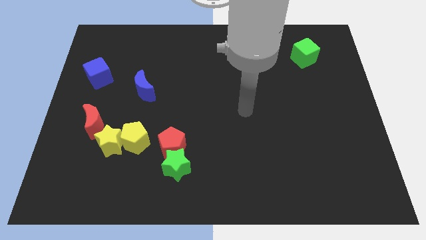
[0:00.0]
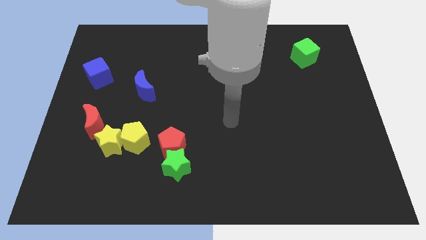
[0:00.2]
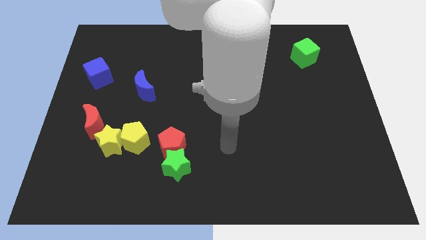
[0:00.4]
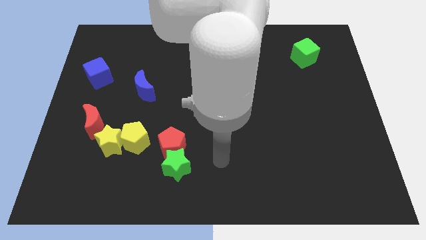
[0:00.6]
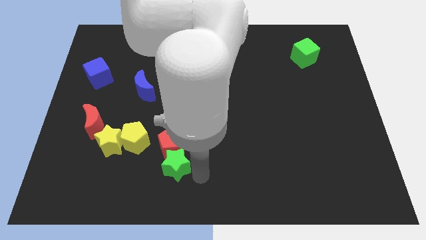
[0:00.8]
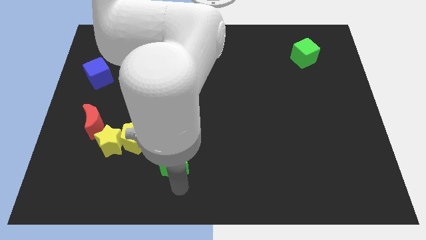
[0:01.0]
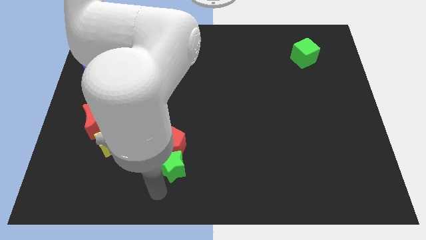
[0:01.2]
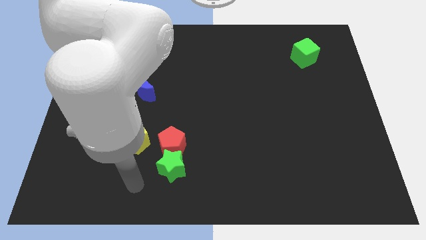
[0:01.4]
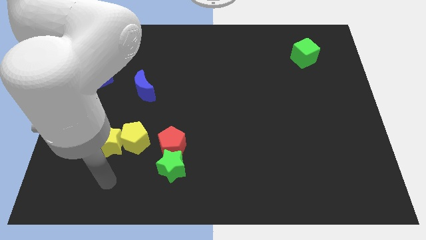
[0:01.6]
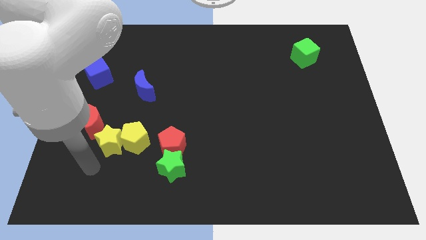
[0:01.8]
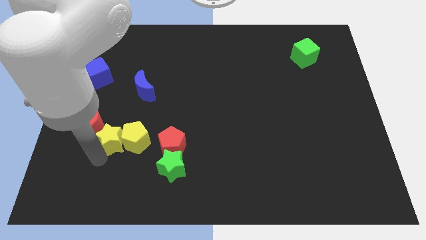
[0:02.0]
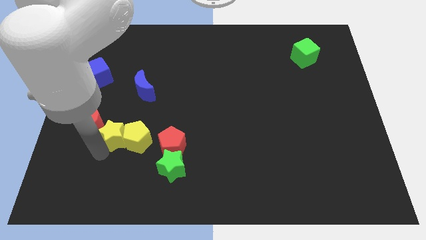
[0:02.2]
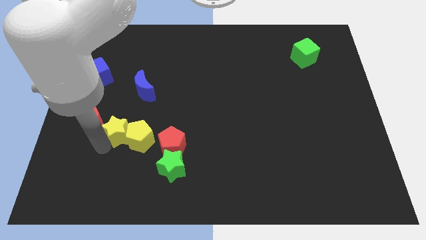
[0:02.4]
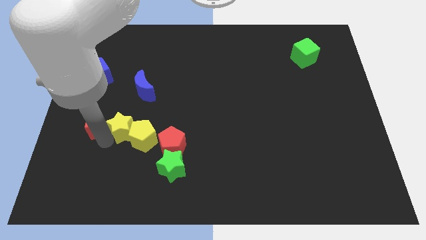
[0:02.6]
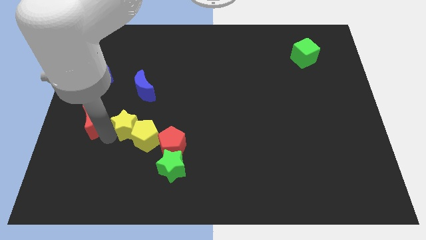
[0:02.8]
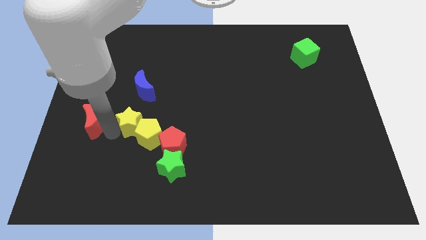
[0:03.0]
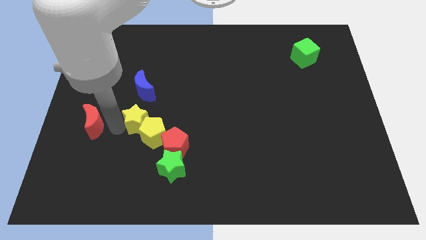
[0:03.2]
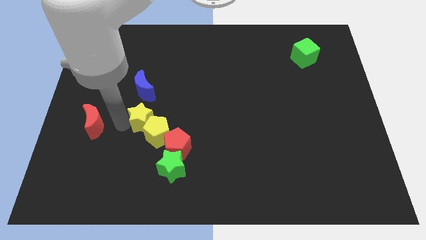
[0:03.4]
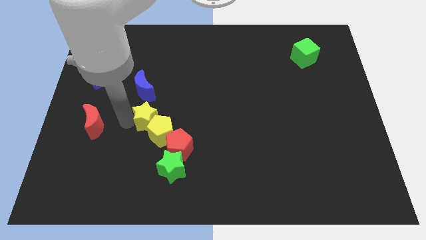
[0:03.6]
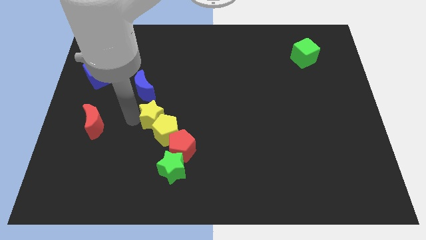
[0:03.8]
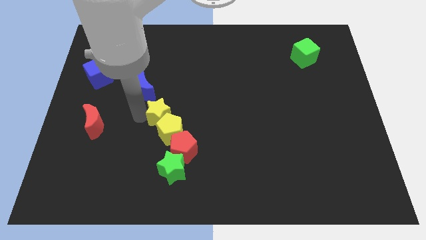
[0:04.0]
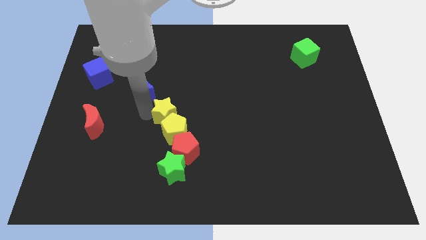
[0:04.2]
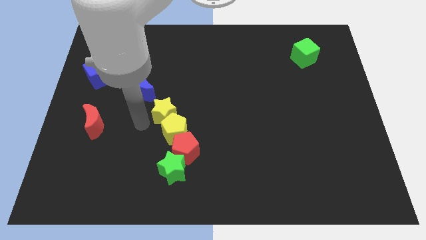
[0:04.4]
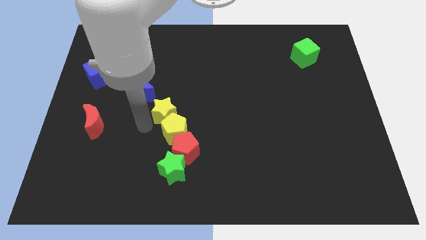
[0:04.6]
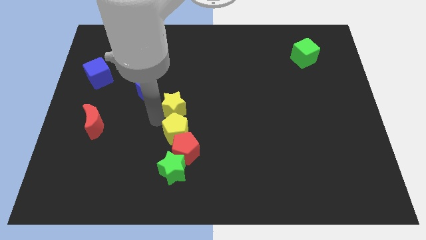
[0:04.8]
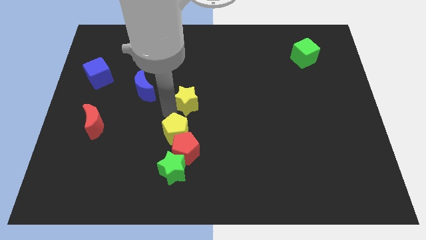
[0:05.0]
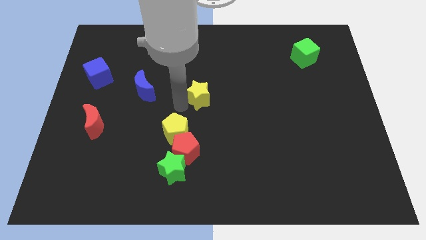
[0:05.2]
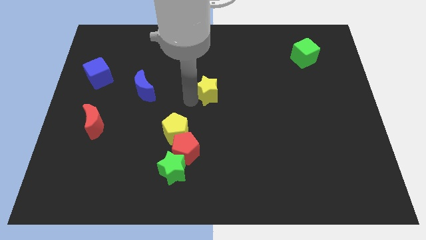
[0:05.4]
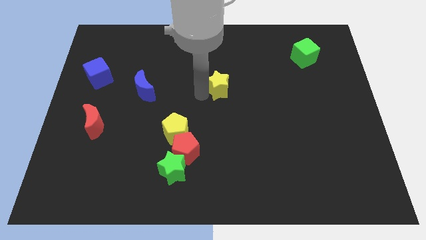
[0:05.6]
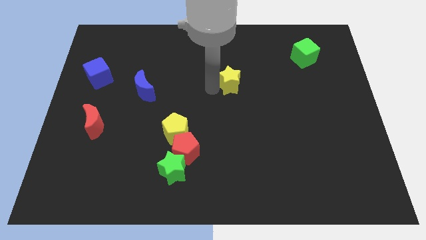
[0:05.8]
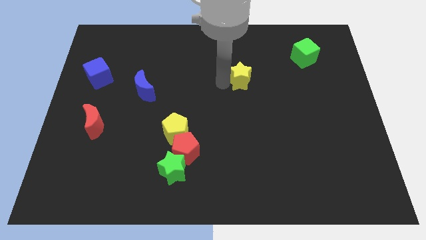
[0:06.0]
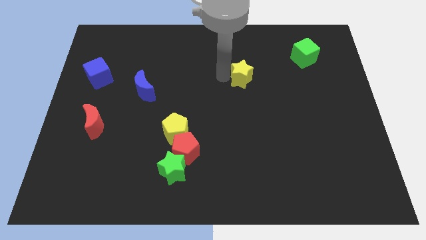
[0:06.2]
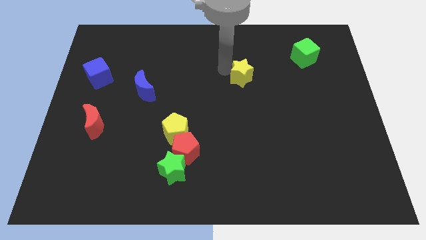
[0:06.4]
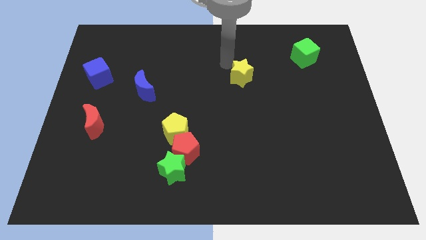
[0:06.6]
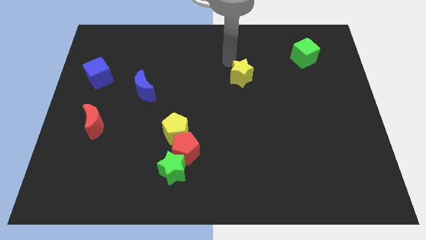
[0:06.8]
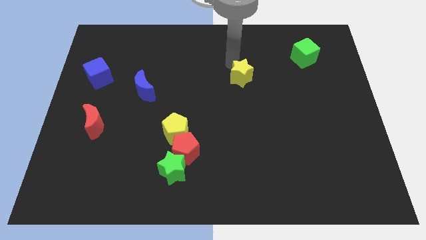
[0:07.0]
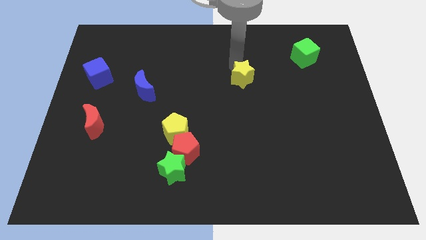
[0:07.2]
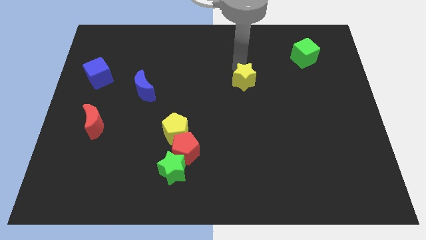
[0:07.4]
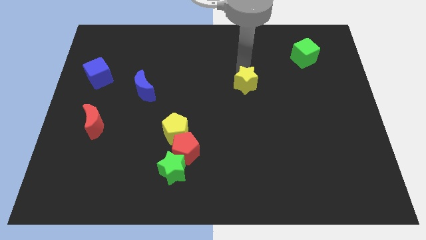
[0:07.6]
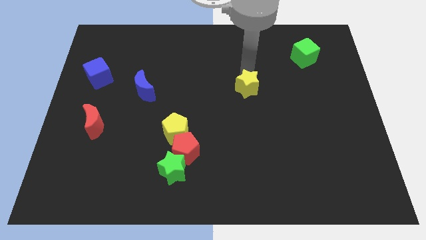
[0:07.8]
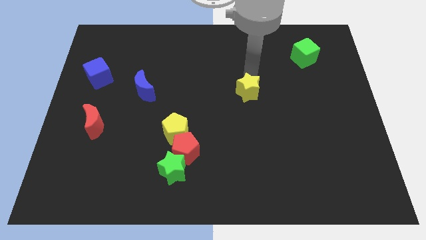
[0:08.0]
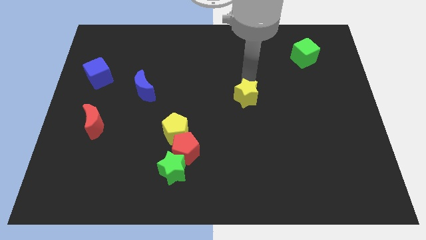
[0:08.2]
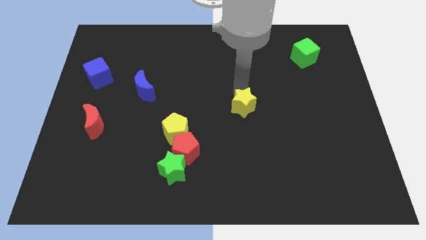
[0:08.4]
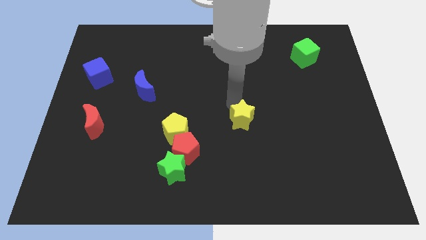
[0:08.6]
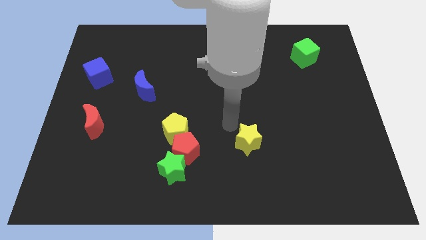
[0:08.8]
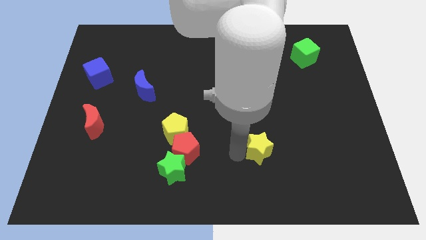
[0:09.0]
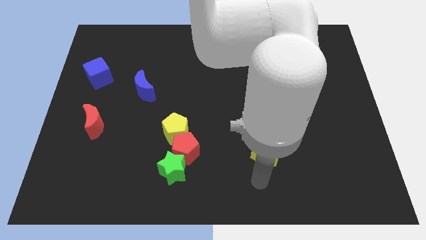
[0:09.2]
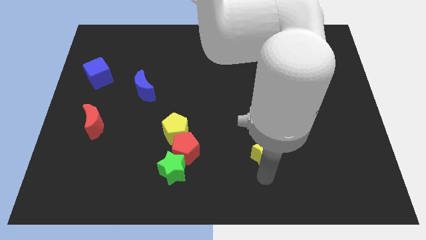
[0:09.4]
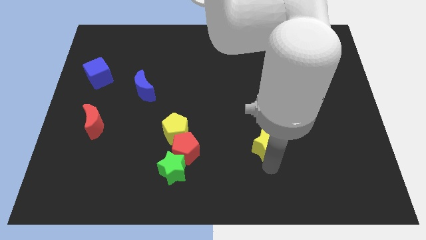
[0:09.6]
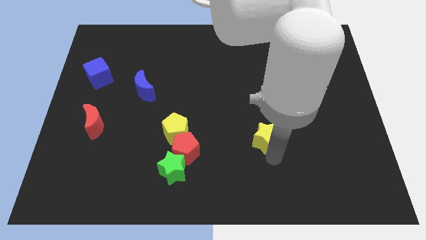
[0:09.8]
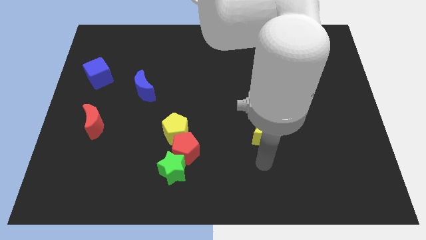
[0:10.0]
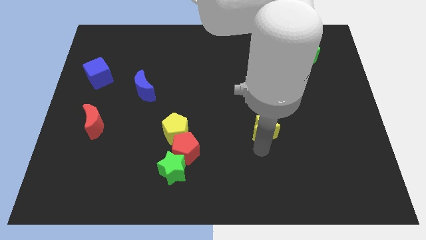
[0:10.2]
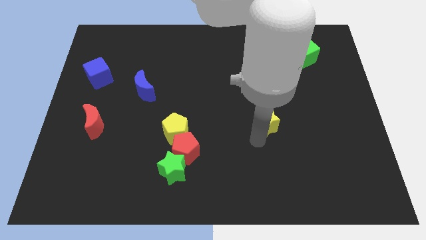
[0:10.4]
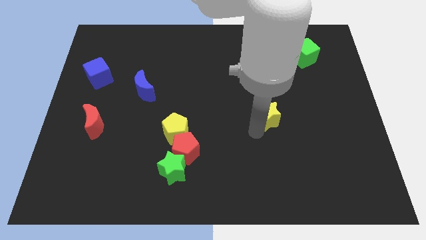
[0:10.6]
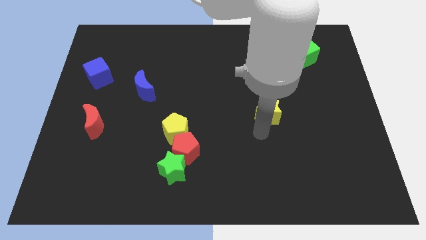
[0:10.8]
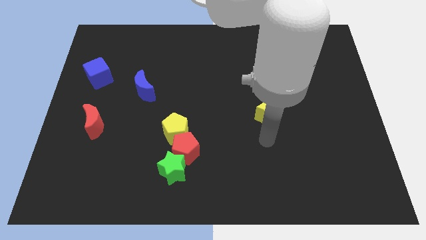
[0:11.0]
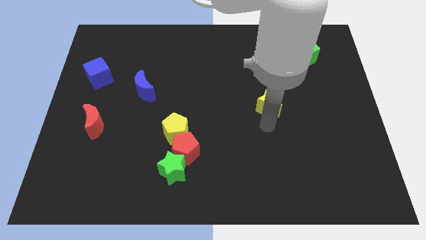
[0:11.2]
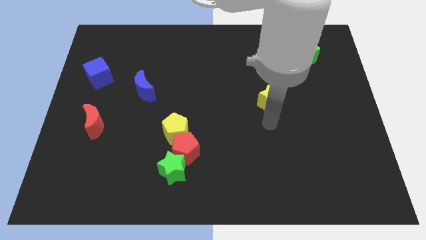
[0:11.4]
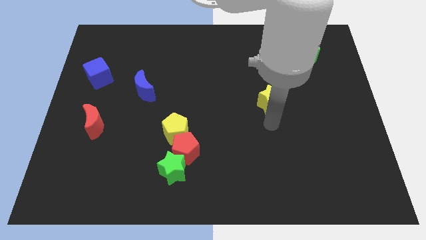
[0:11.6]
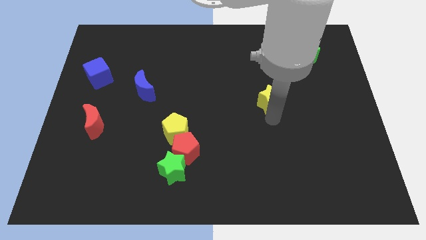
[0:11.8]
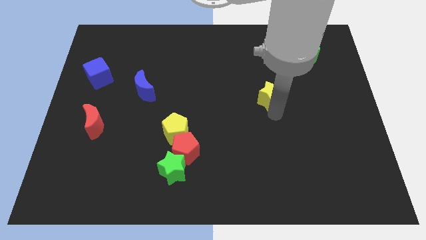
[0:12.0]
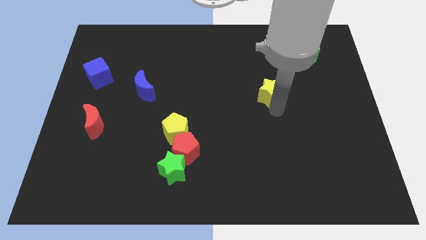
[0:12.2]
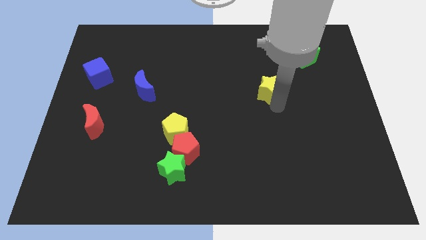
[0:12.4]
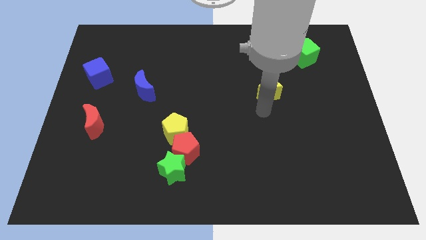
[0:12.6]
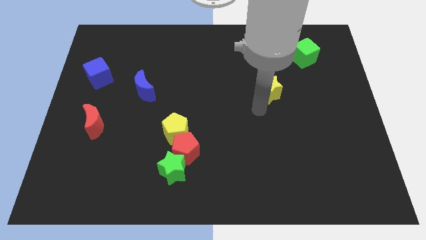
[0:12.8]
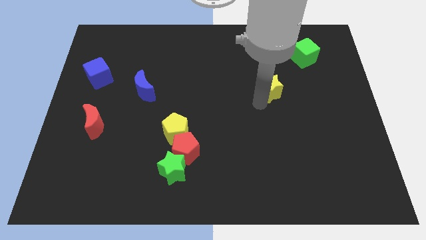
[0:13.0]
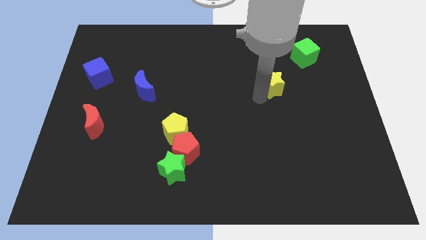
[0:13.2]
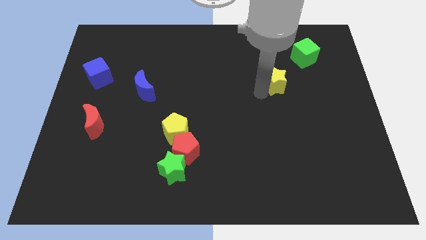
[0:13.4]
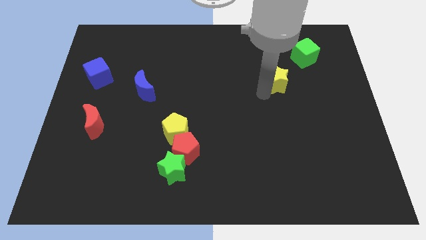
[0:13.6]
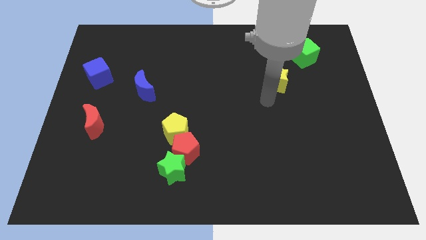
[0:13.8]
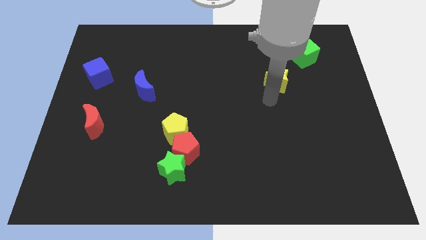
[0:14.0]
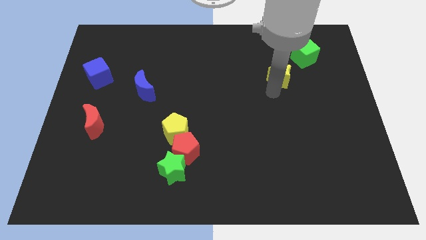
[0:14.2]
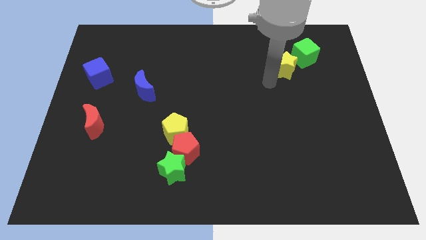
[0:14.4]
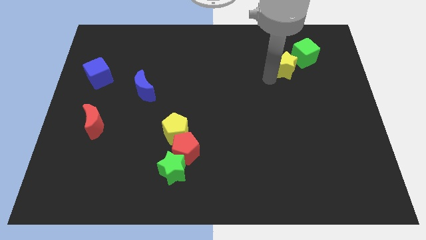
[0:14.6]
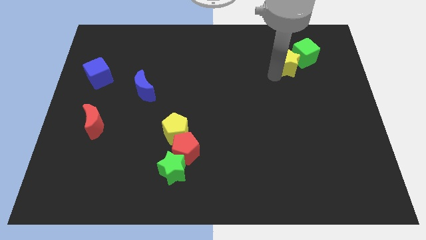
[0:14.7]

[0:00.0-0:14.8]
slide the yellow star to the green cube
